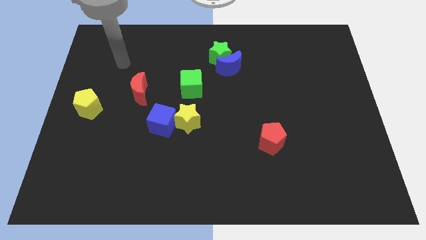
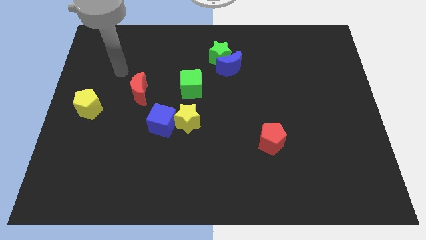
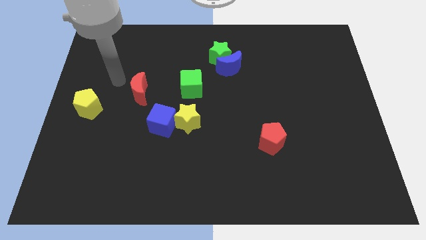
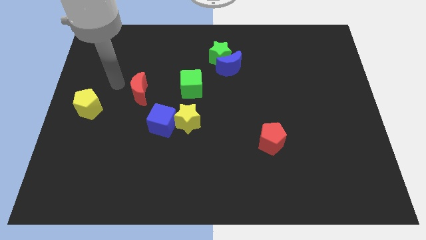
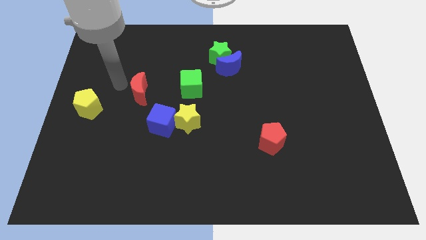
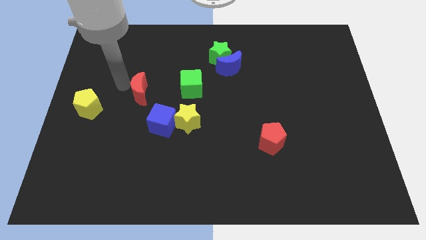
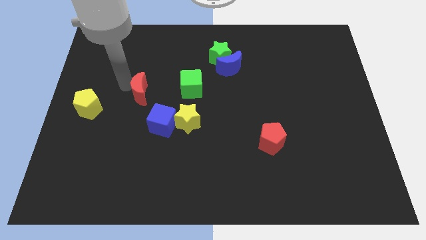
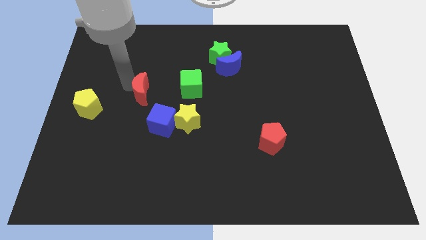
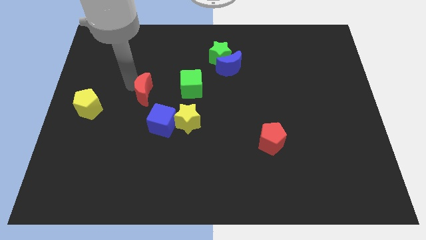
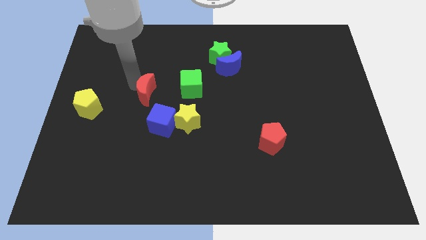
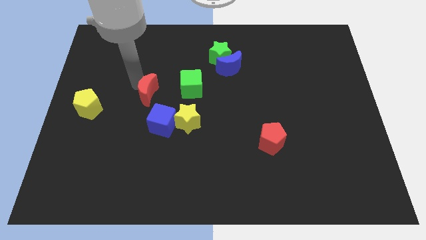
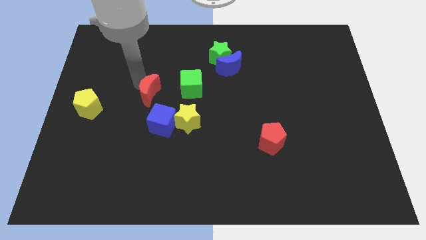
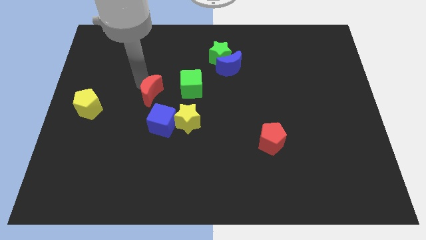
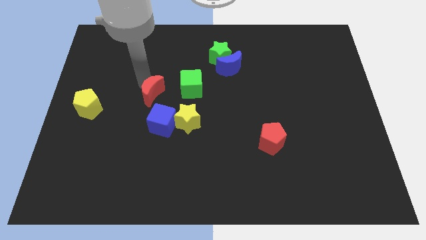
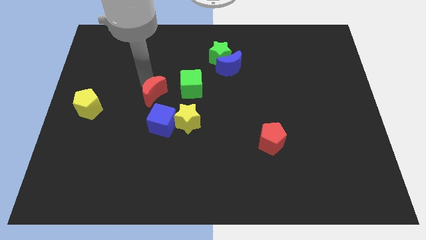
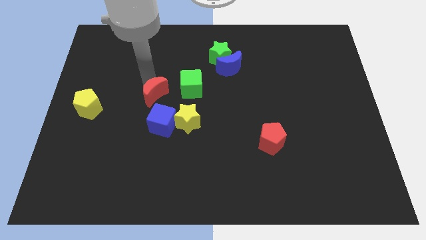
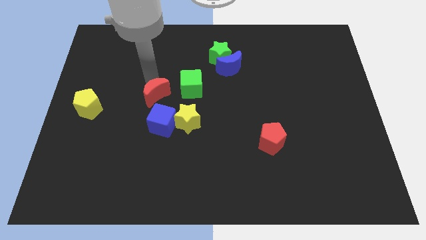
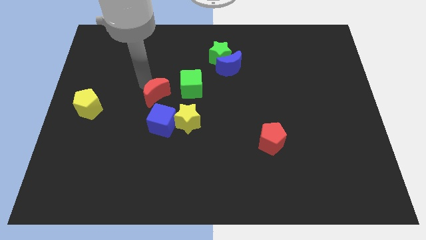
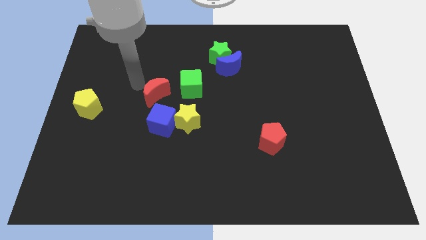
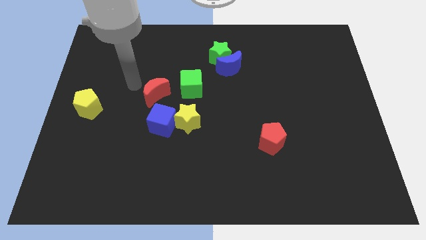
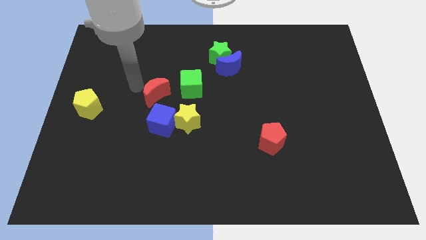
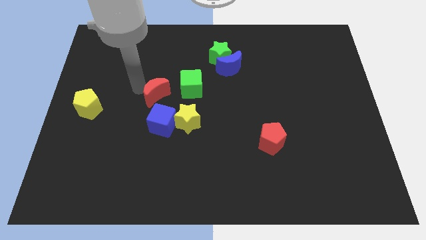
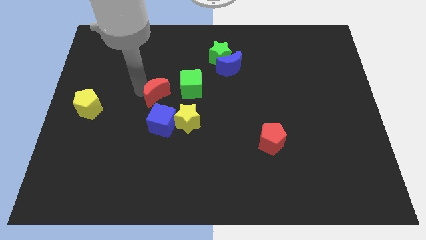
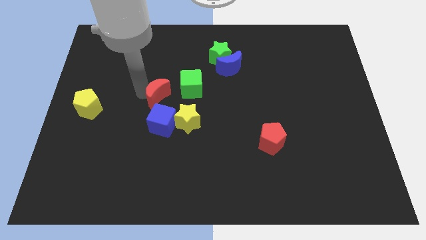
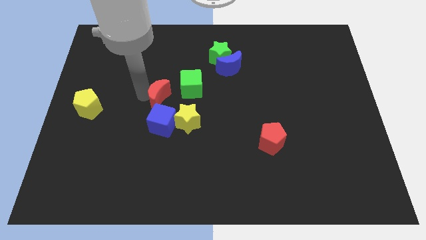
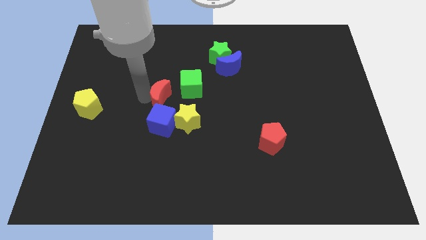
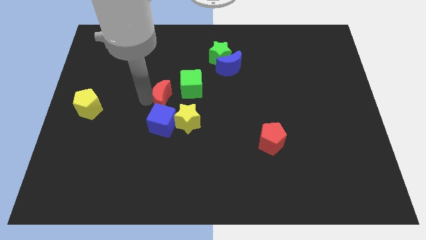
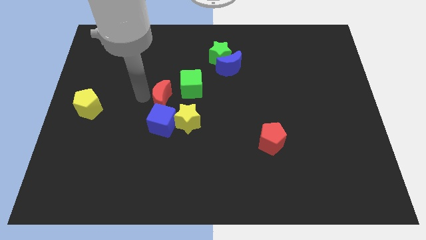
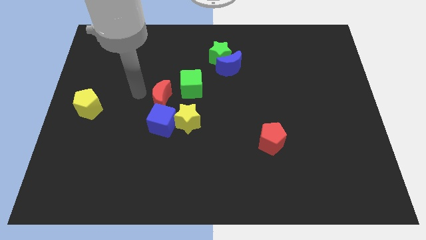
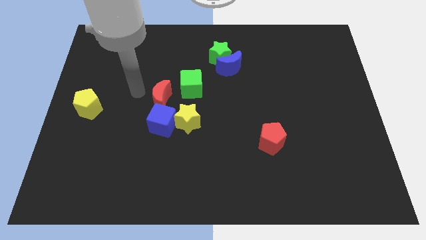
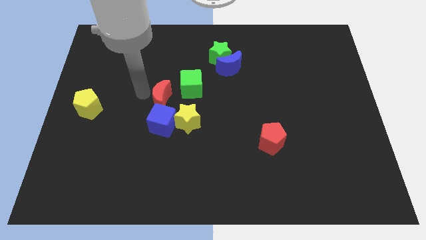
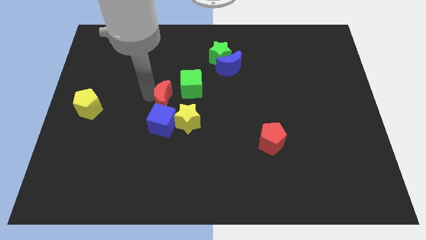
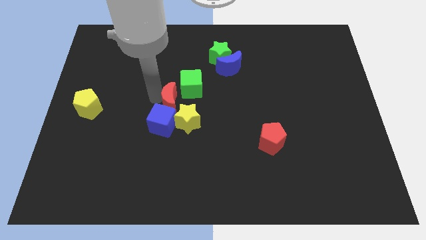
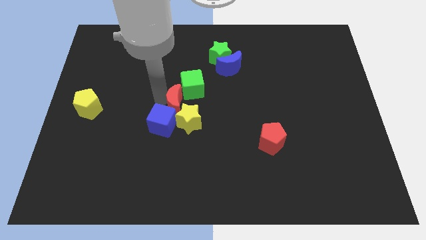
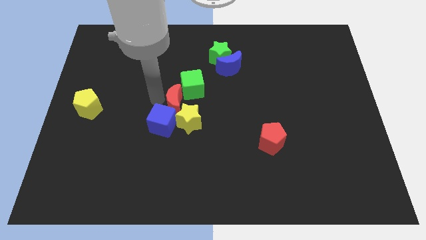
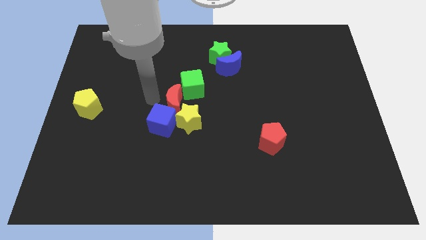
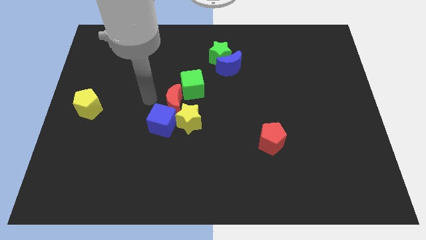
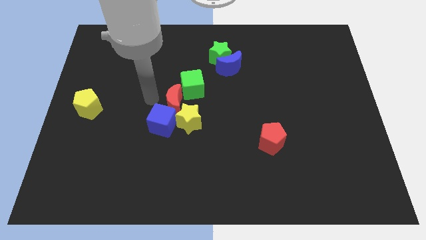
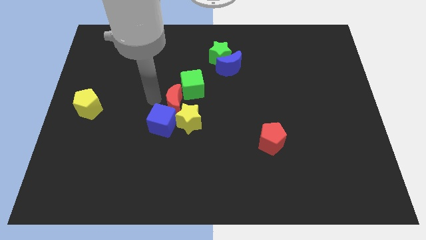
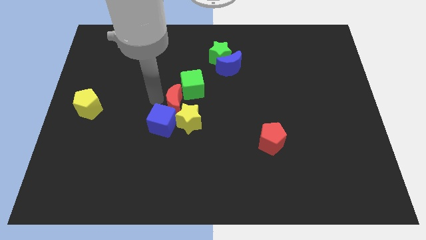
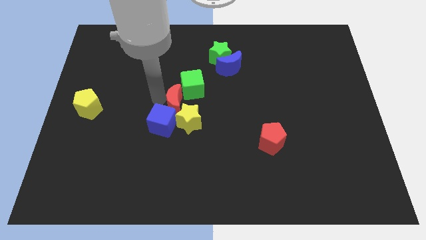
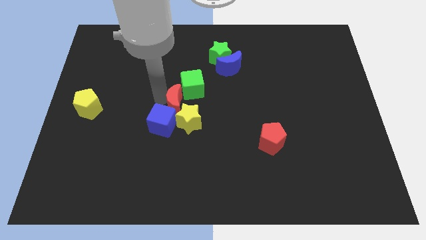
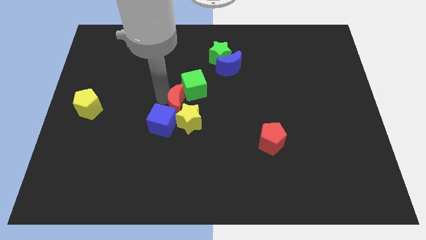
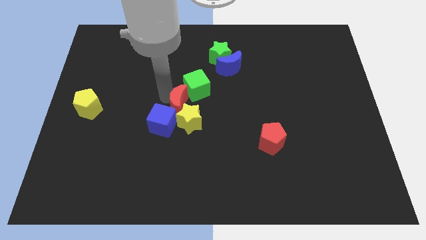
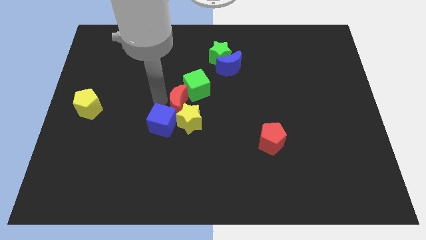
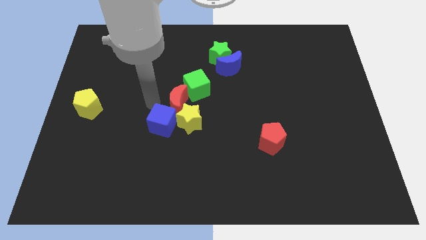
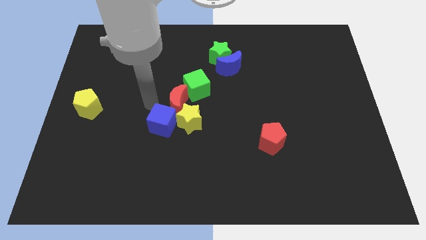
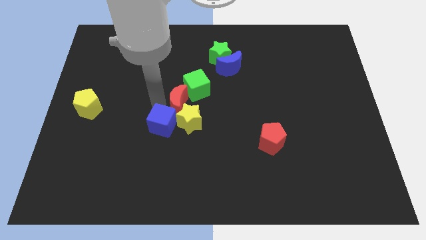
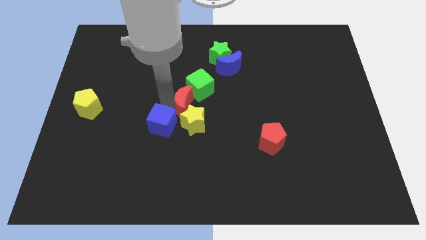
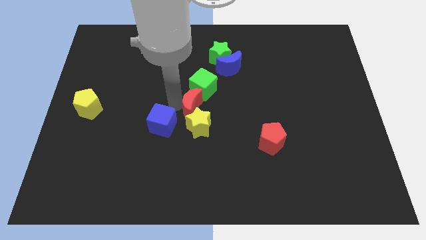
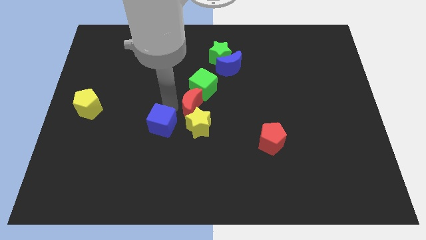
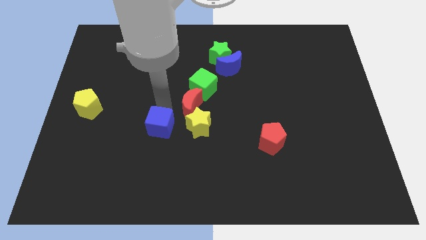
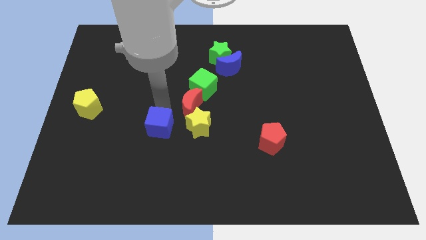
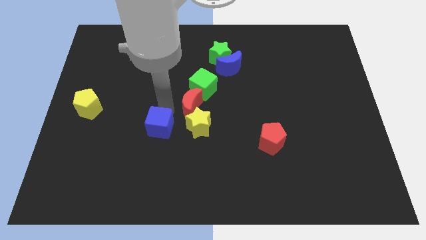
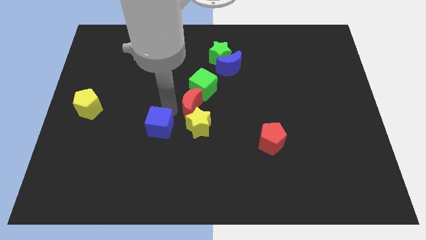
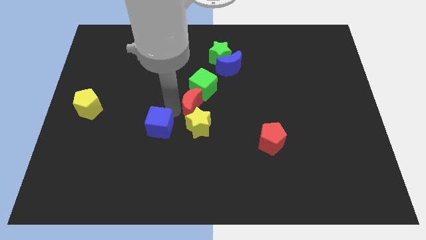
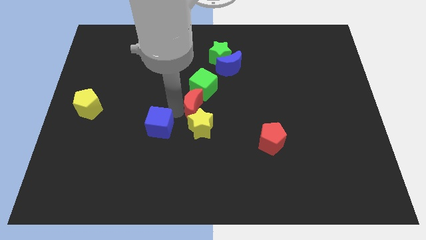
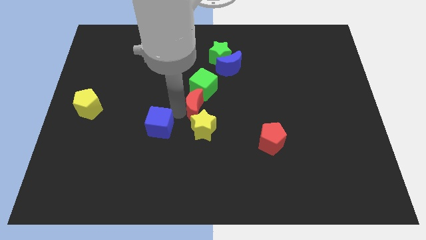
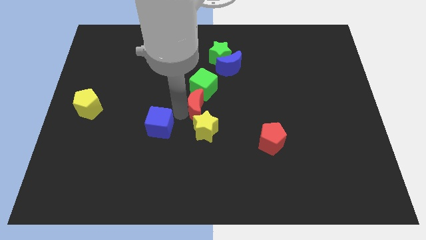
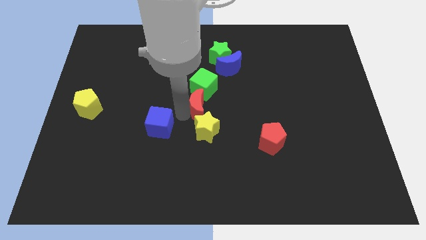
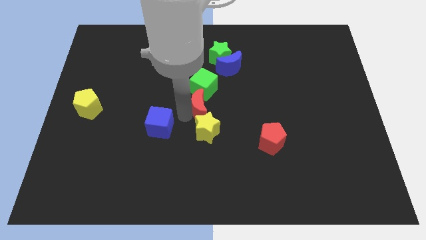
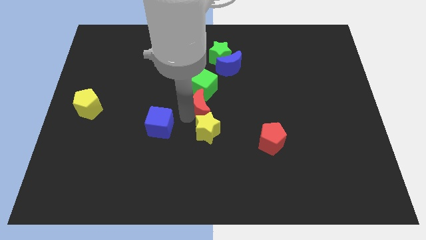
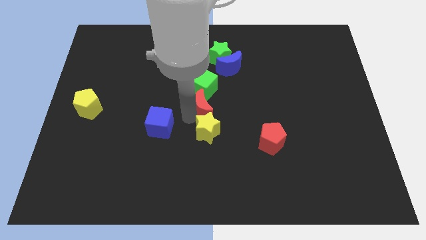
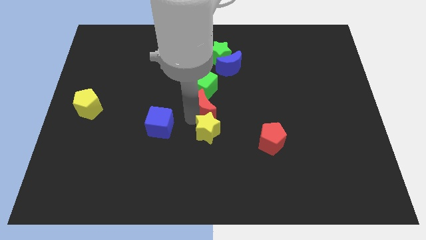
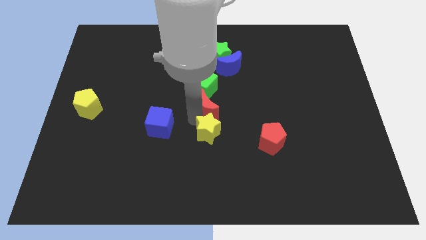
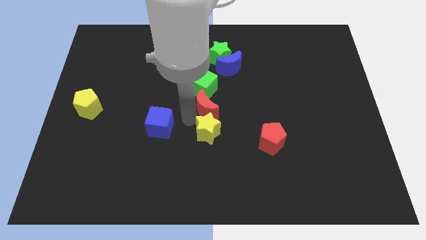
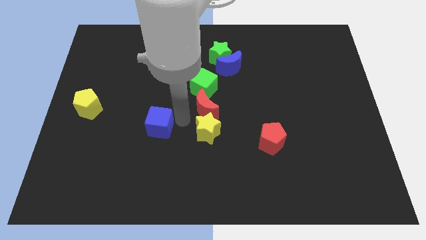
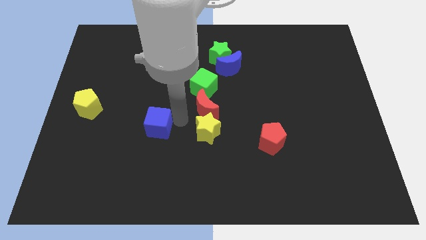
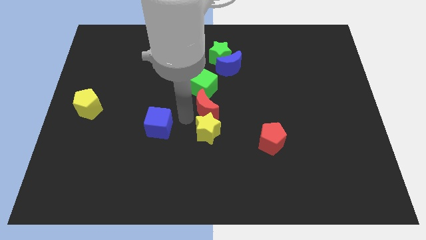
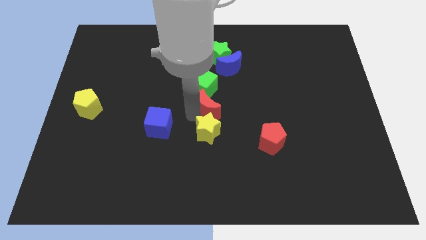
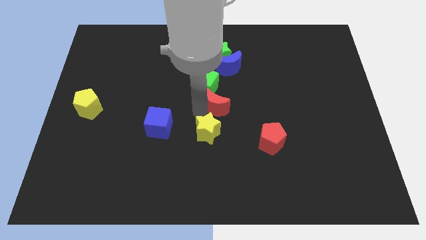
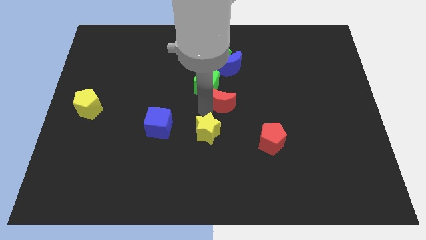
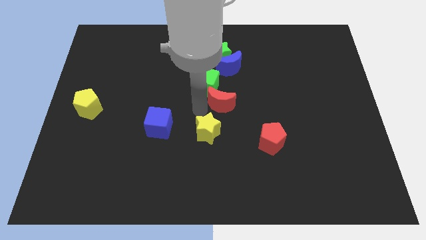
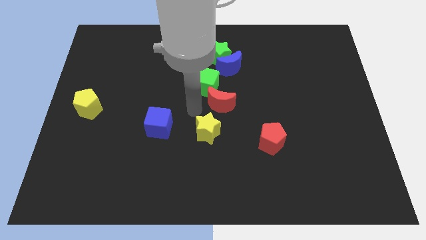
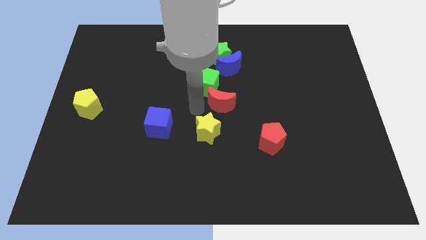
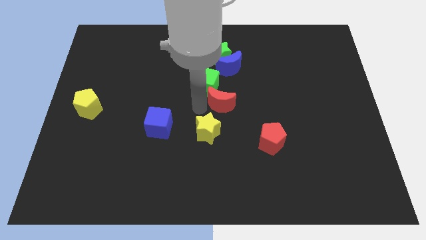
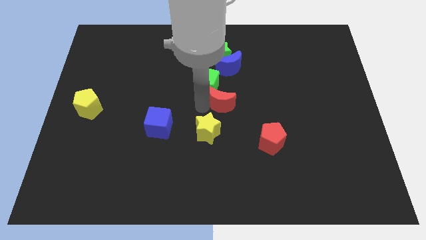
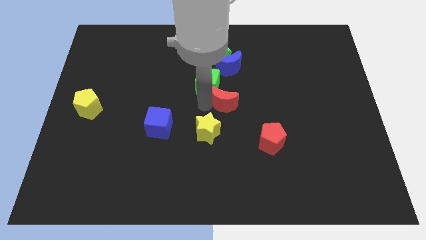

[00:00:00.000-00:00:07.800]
push the red moon right
